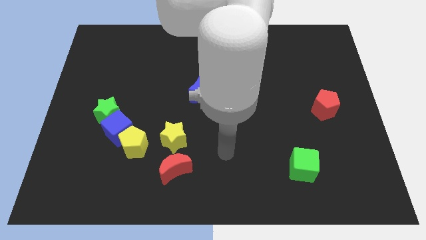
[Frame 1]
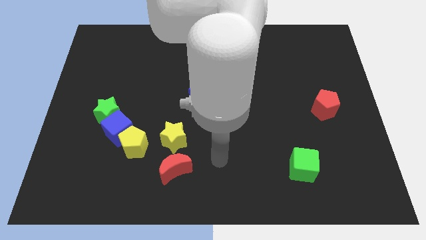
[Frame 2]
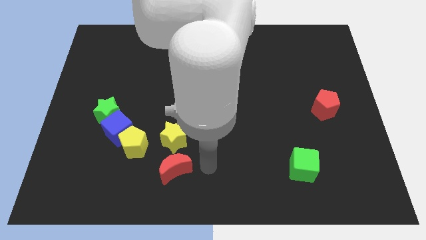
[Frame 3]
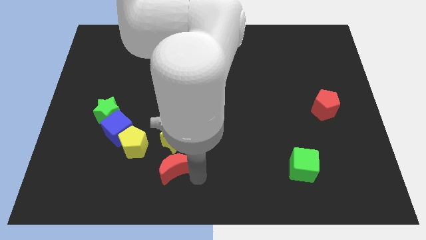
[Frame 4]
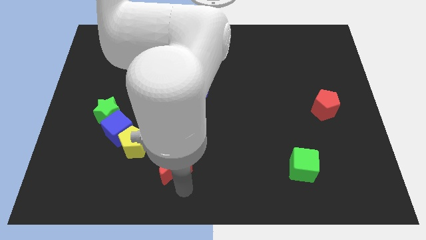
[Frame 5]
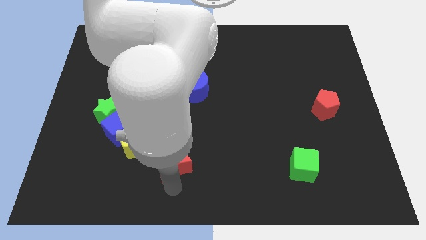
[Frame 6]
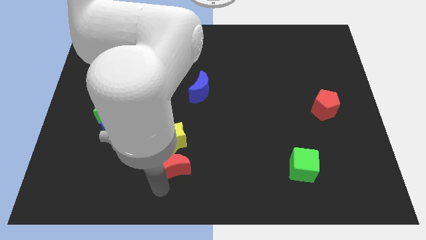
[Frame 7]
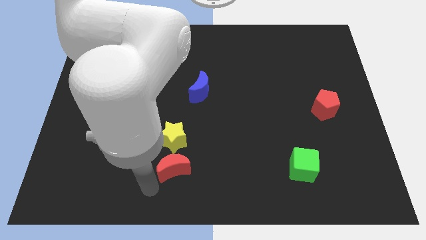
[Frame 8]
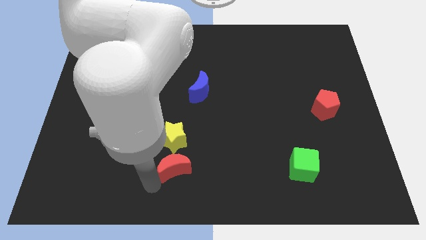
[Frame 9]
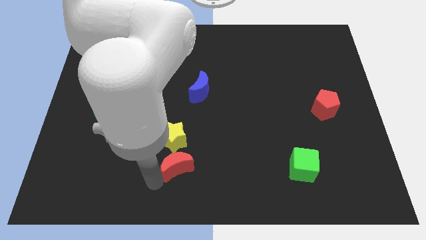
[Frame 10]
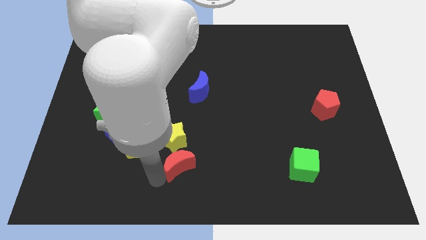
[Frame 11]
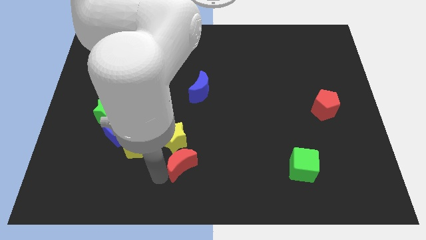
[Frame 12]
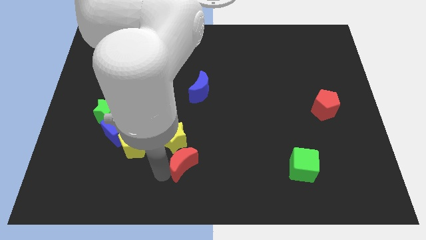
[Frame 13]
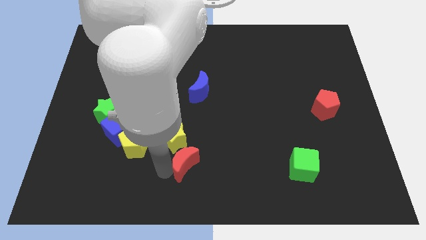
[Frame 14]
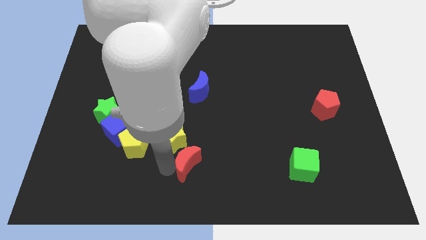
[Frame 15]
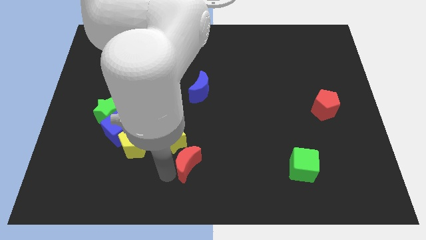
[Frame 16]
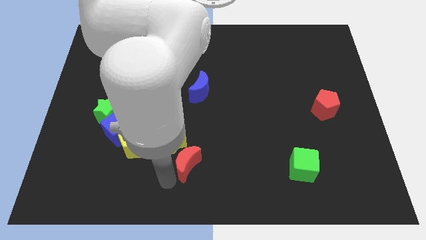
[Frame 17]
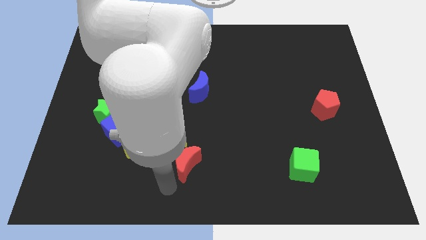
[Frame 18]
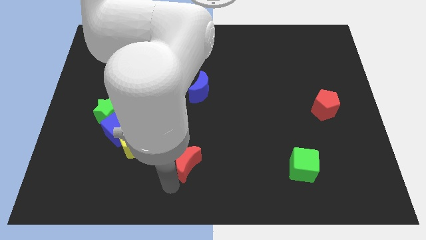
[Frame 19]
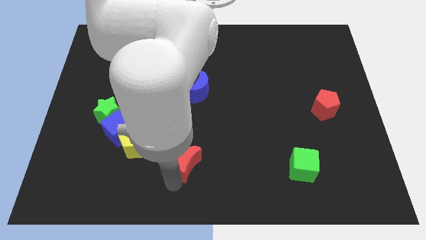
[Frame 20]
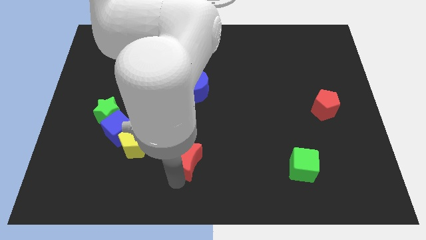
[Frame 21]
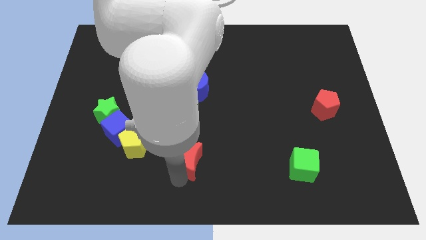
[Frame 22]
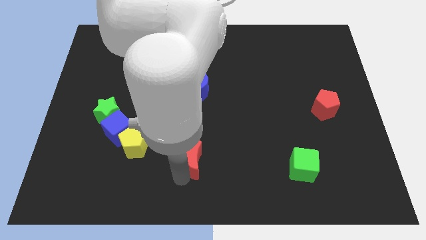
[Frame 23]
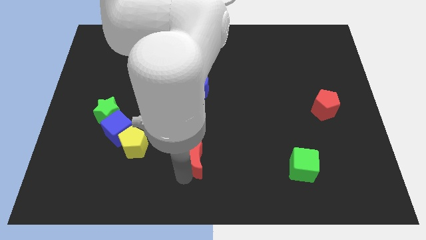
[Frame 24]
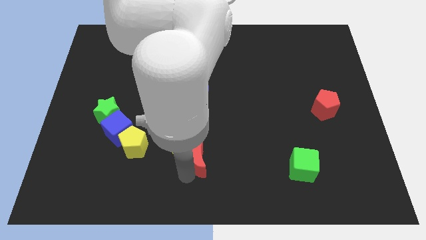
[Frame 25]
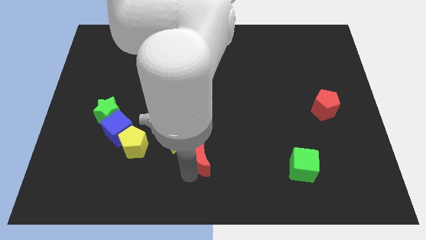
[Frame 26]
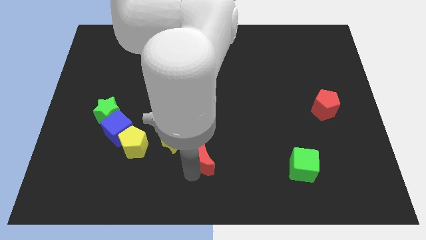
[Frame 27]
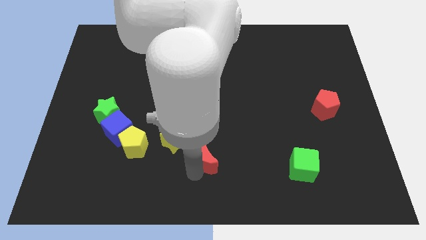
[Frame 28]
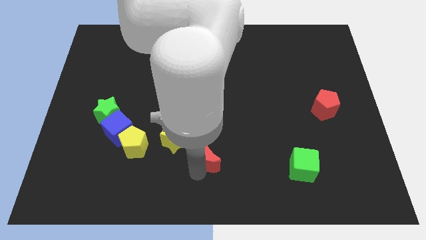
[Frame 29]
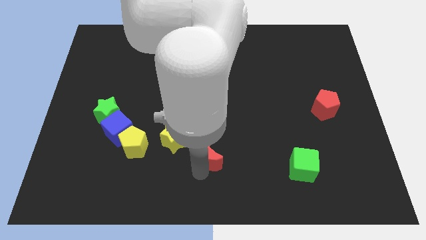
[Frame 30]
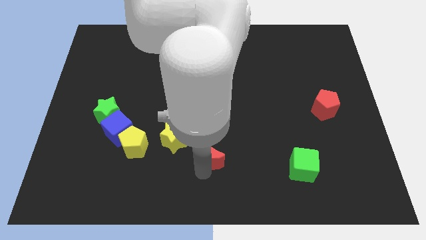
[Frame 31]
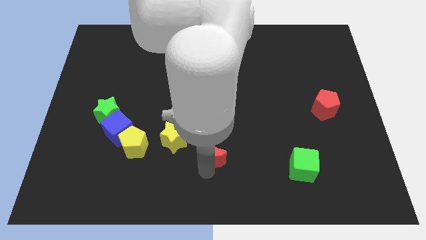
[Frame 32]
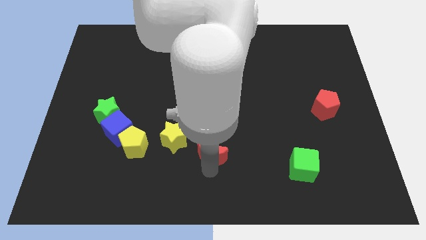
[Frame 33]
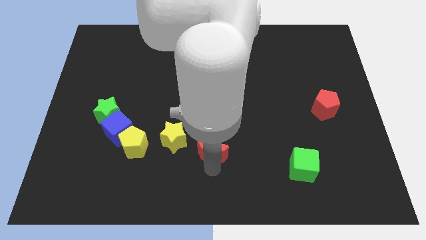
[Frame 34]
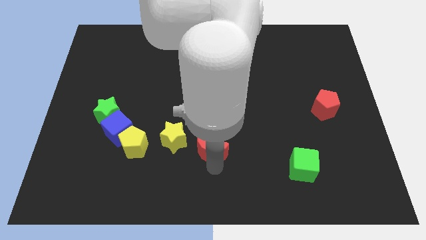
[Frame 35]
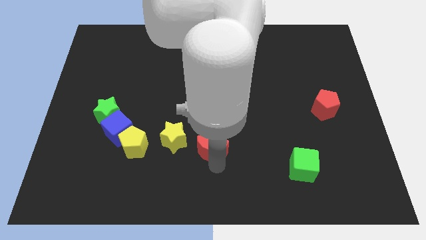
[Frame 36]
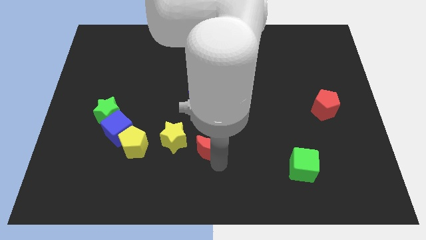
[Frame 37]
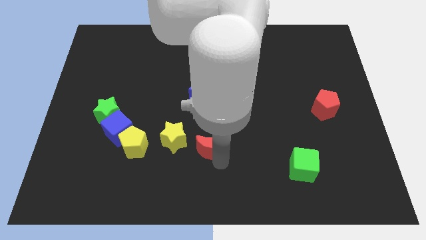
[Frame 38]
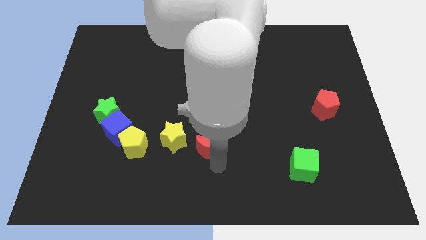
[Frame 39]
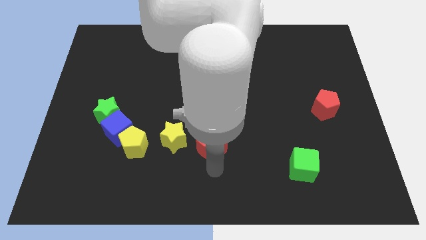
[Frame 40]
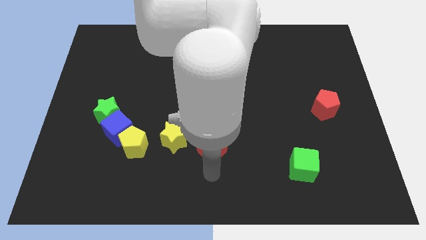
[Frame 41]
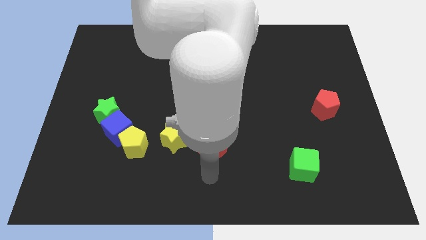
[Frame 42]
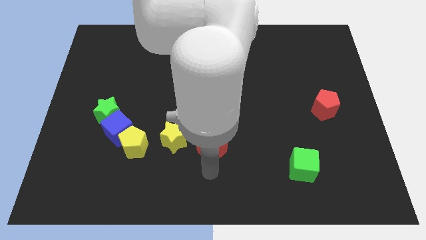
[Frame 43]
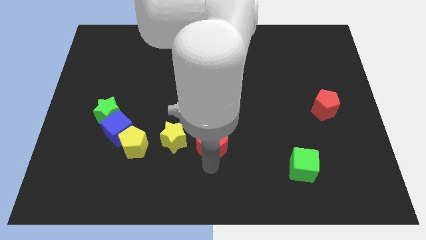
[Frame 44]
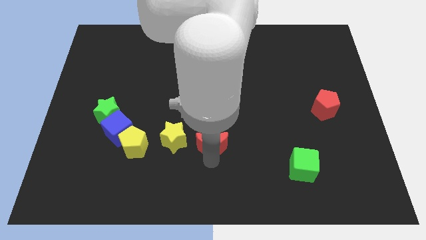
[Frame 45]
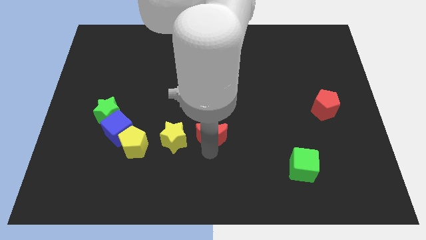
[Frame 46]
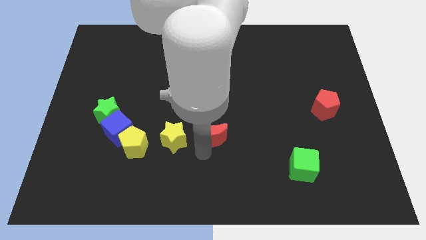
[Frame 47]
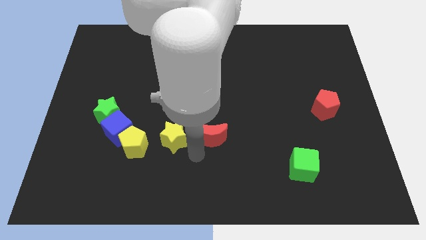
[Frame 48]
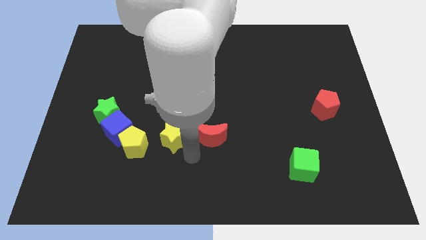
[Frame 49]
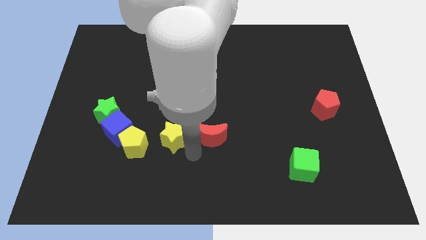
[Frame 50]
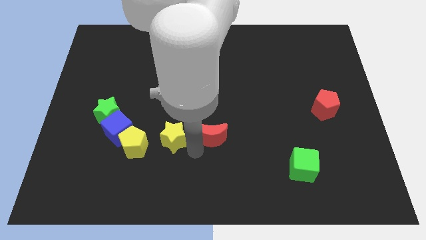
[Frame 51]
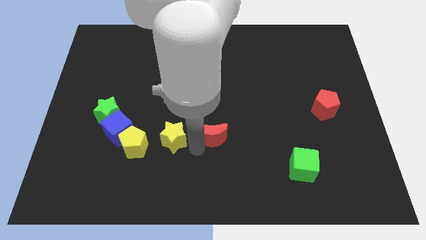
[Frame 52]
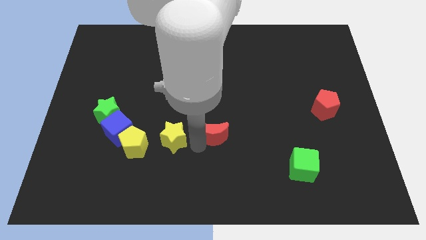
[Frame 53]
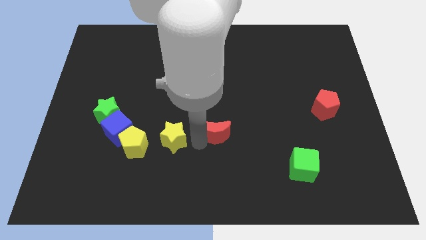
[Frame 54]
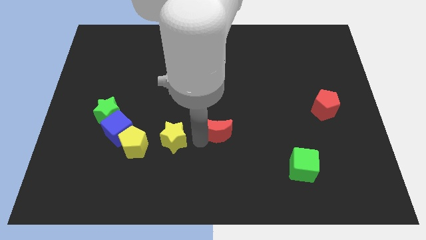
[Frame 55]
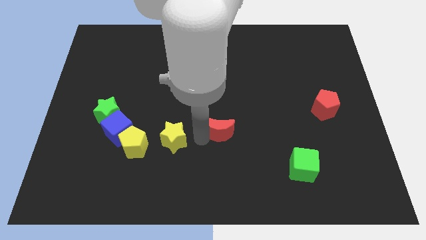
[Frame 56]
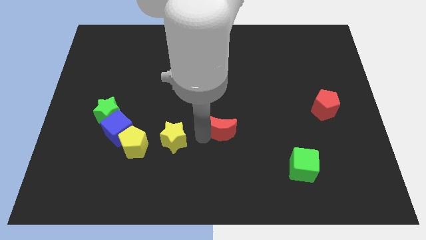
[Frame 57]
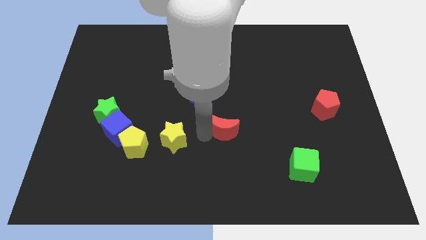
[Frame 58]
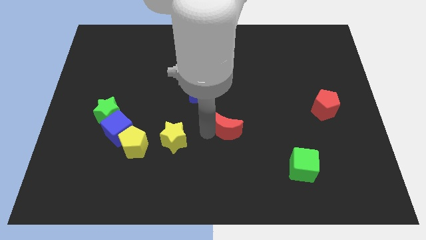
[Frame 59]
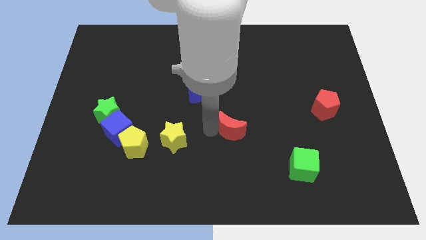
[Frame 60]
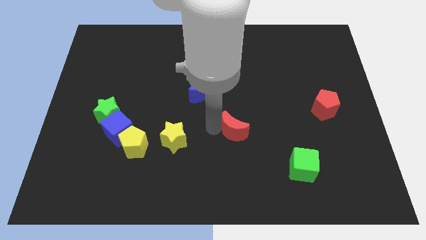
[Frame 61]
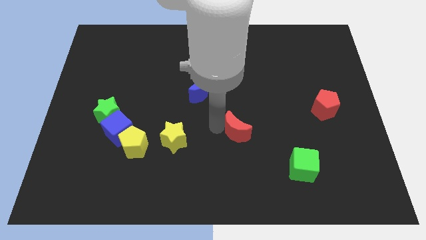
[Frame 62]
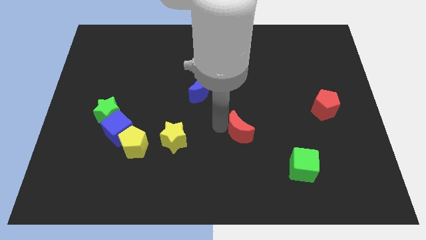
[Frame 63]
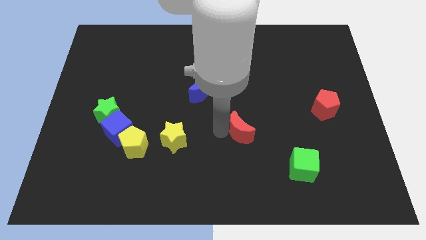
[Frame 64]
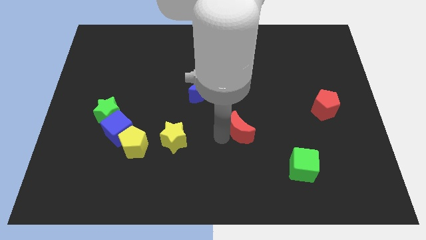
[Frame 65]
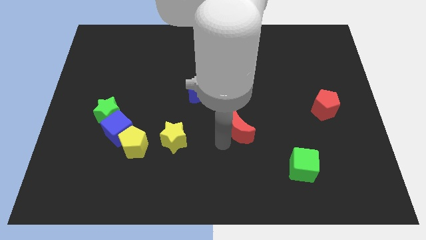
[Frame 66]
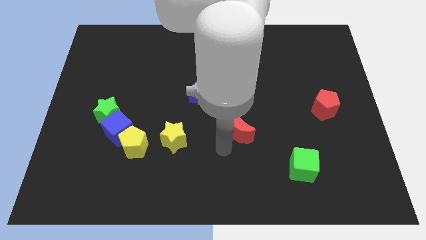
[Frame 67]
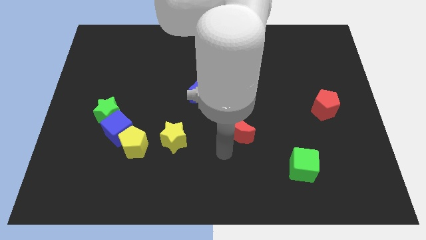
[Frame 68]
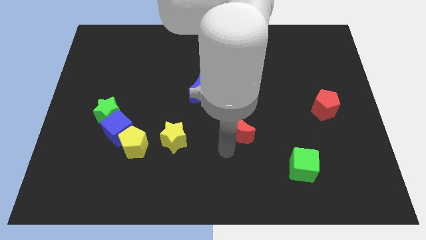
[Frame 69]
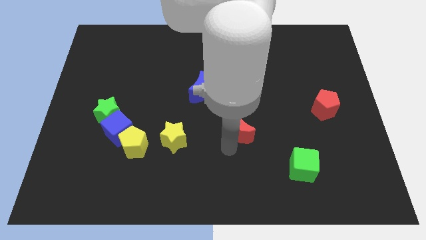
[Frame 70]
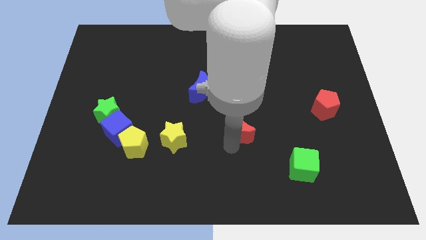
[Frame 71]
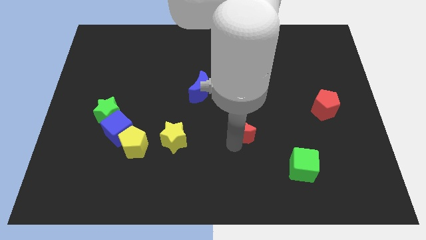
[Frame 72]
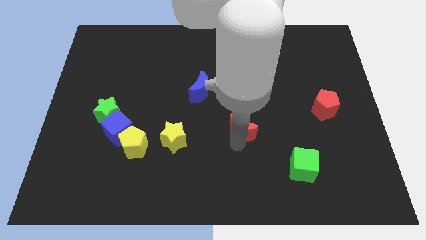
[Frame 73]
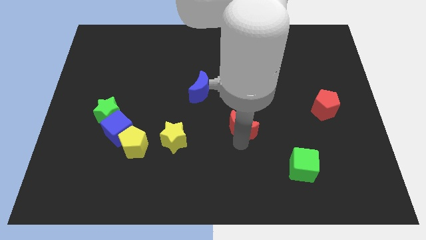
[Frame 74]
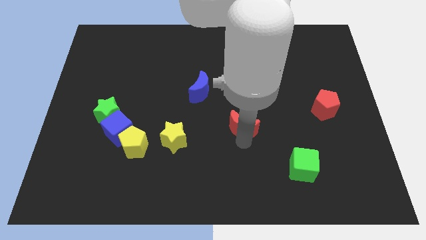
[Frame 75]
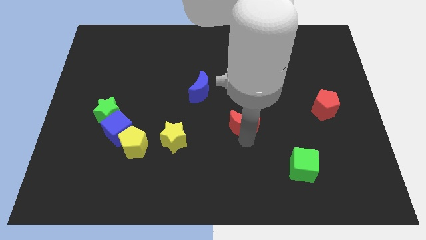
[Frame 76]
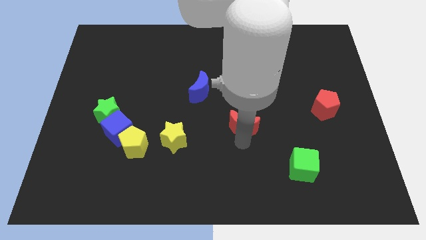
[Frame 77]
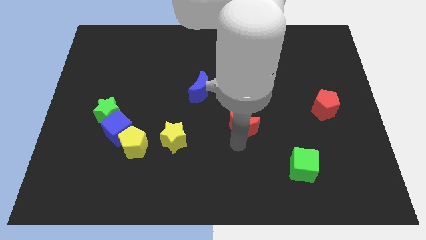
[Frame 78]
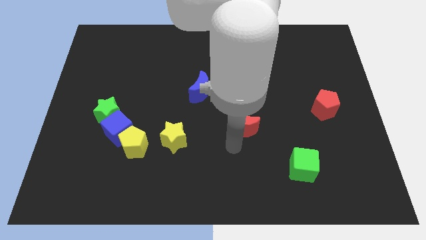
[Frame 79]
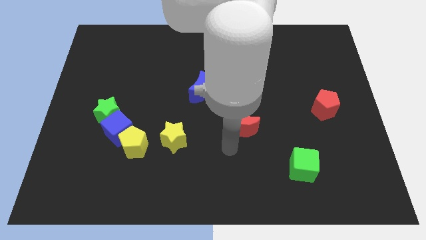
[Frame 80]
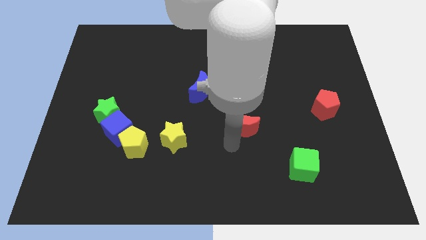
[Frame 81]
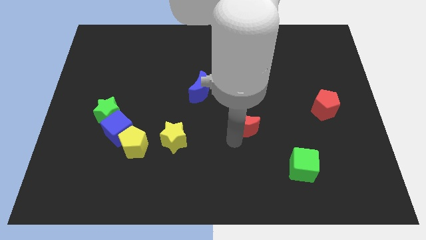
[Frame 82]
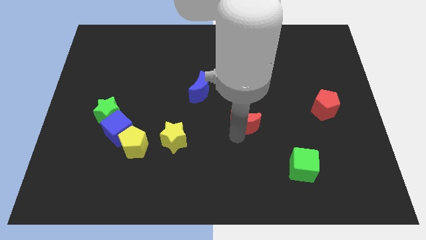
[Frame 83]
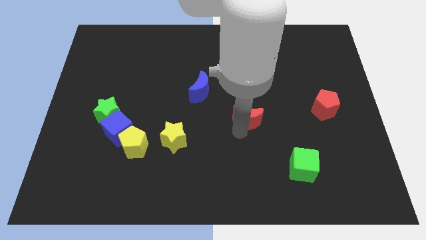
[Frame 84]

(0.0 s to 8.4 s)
push the red moon up and then right
